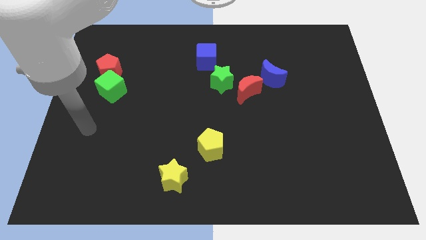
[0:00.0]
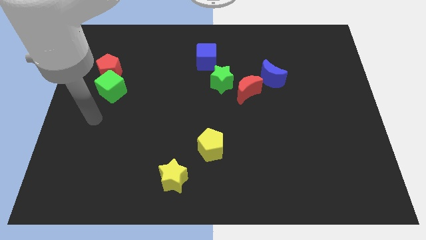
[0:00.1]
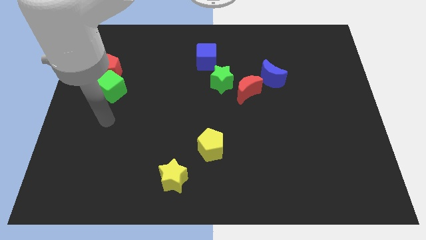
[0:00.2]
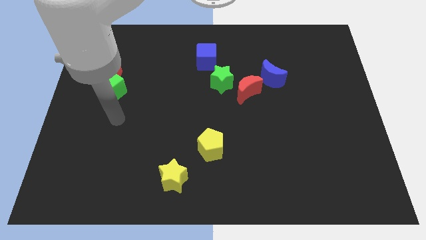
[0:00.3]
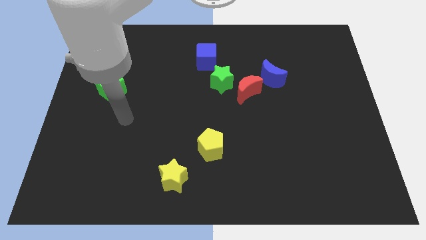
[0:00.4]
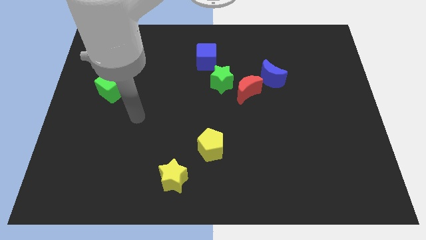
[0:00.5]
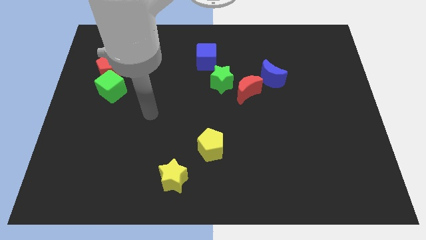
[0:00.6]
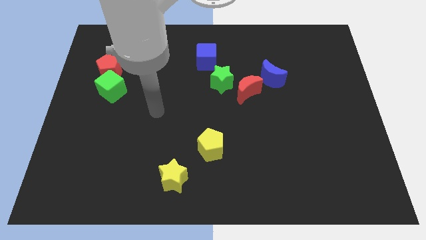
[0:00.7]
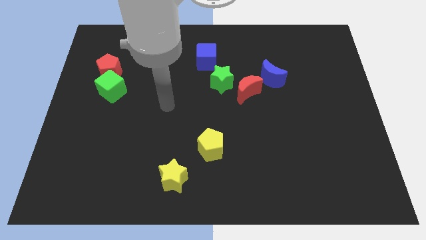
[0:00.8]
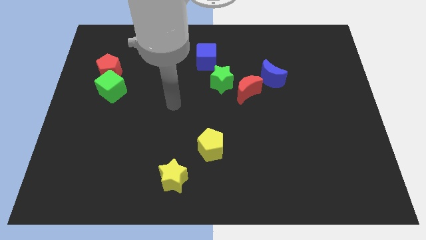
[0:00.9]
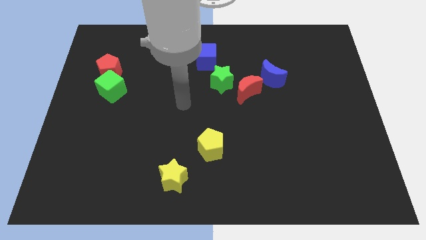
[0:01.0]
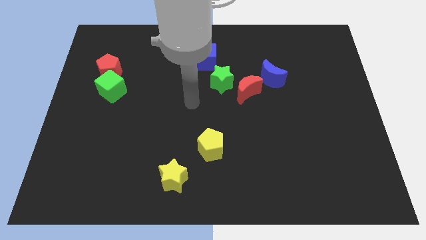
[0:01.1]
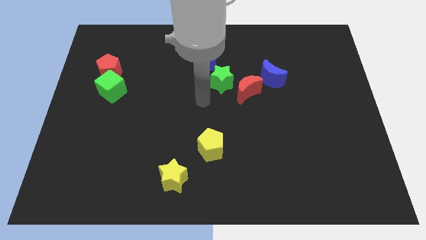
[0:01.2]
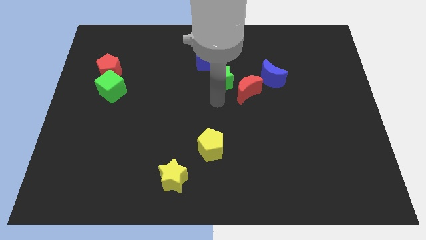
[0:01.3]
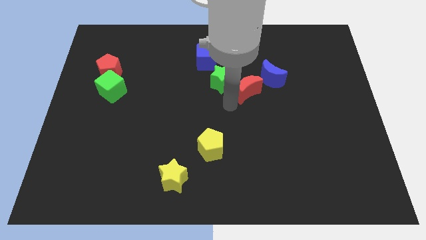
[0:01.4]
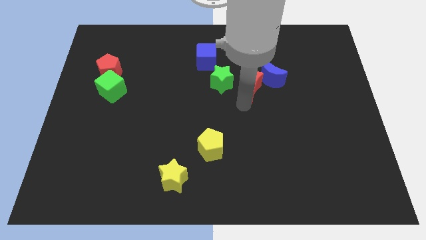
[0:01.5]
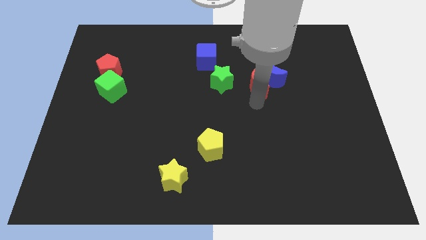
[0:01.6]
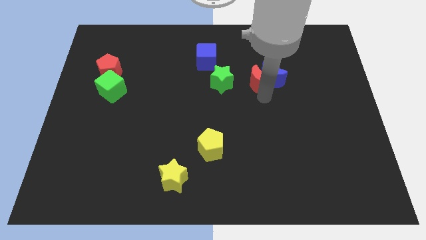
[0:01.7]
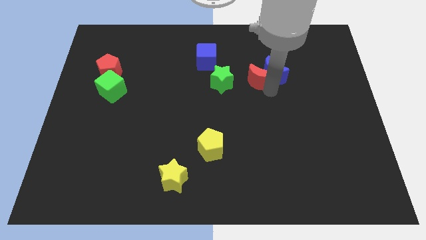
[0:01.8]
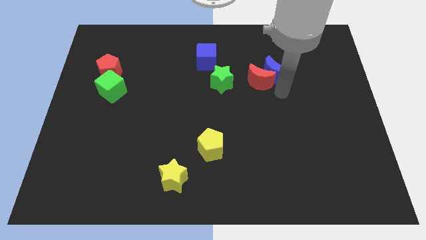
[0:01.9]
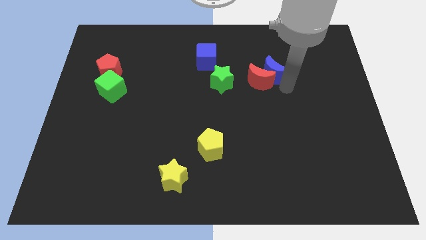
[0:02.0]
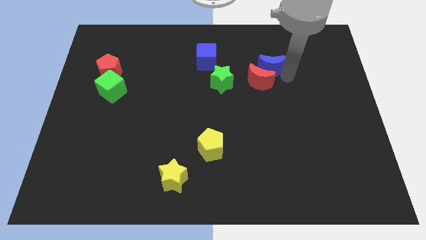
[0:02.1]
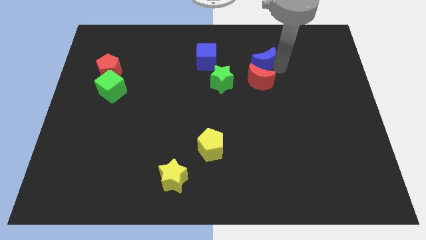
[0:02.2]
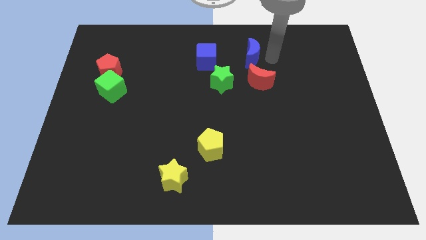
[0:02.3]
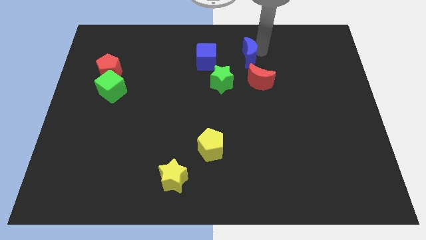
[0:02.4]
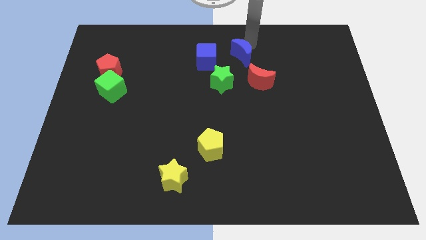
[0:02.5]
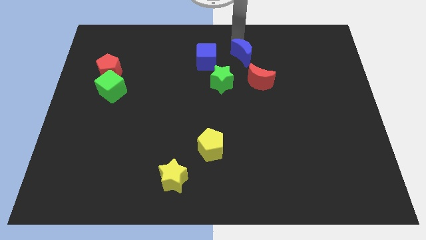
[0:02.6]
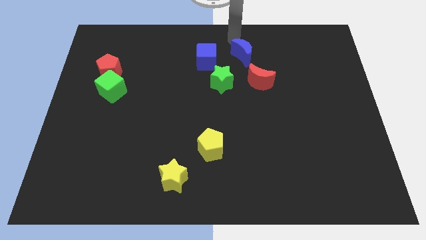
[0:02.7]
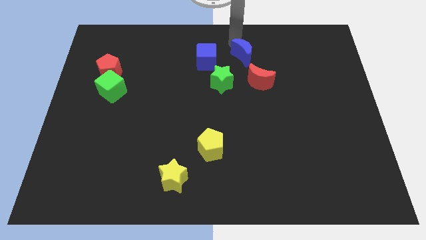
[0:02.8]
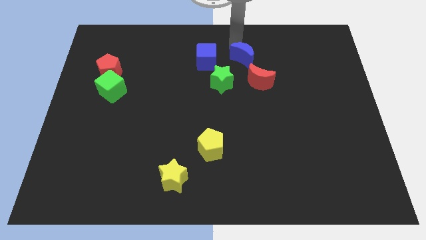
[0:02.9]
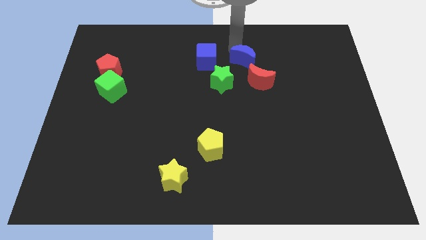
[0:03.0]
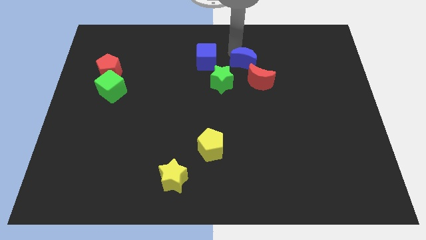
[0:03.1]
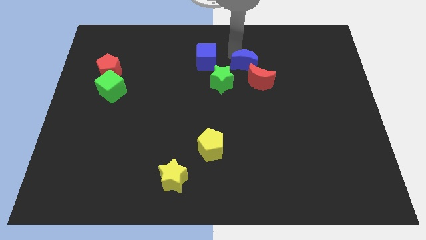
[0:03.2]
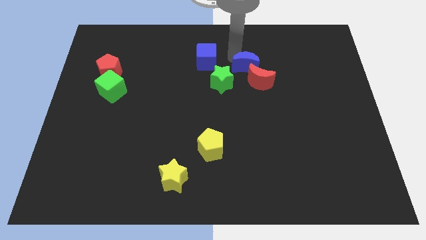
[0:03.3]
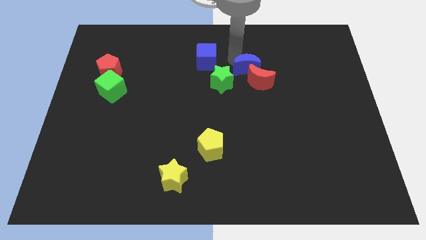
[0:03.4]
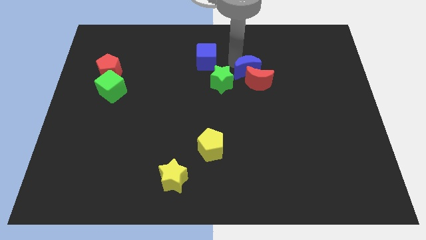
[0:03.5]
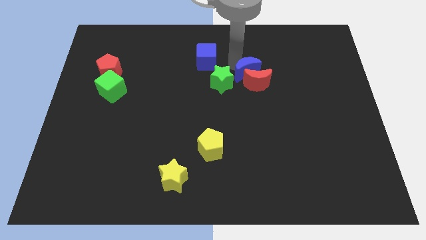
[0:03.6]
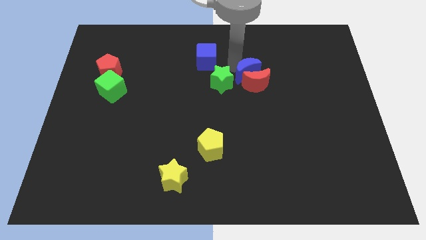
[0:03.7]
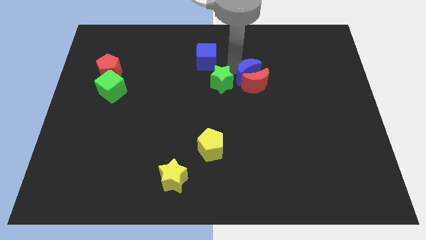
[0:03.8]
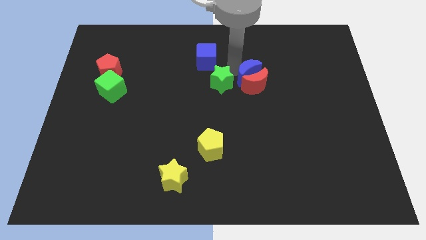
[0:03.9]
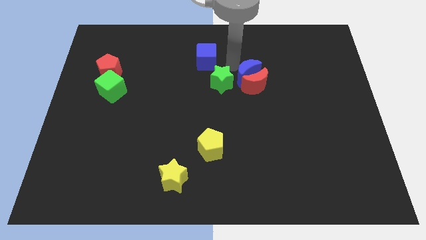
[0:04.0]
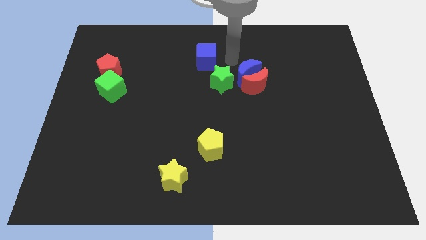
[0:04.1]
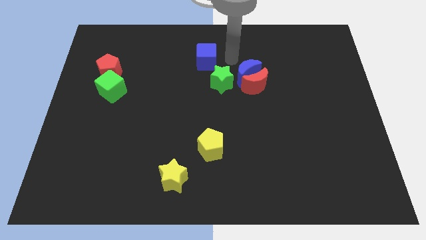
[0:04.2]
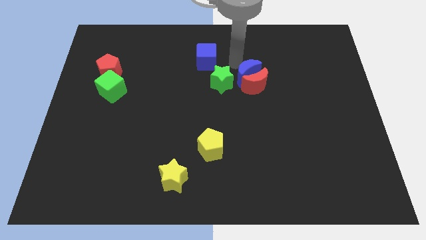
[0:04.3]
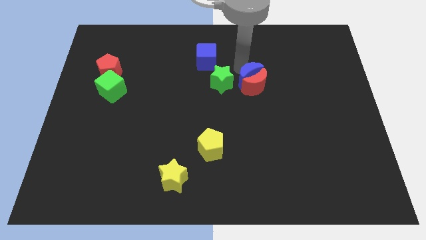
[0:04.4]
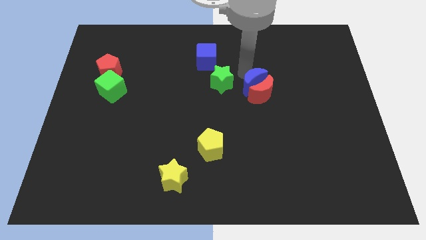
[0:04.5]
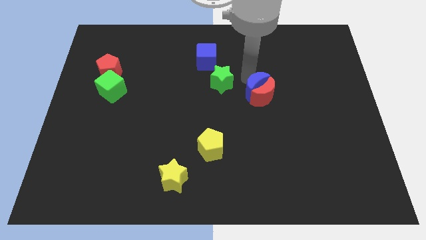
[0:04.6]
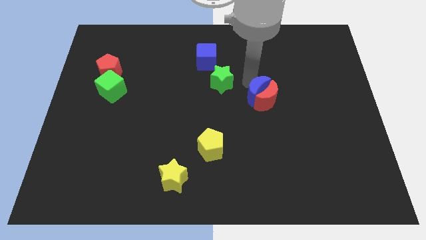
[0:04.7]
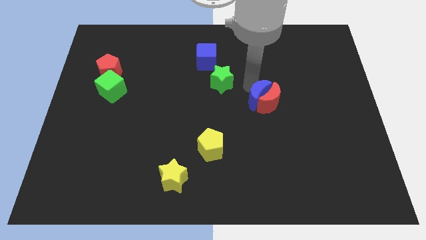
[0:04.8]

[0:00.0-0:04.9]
push the blue moon downwards and to the left a bit

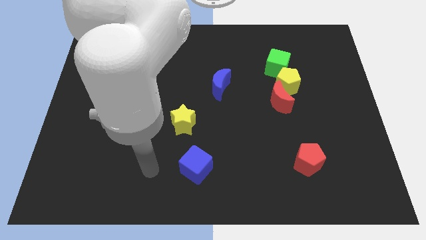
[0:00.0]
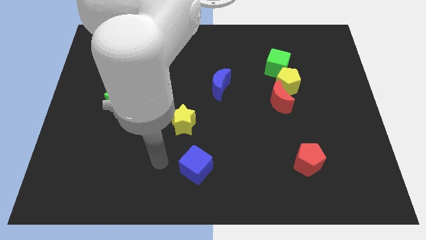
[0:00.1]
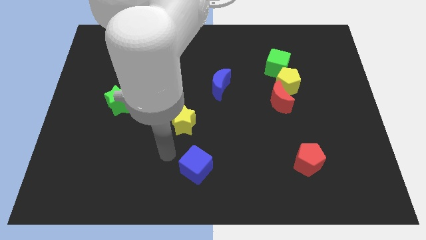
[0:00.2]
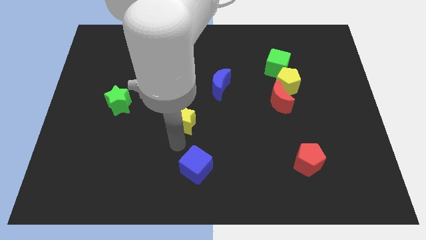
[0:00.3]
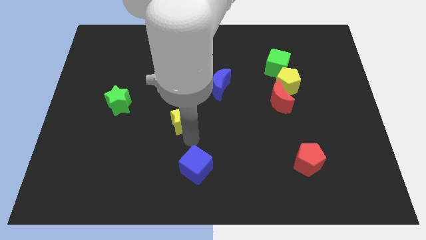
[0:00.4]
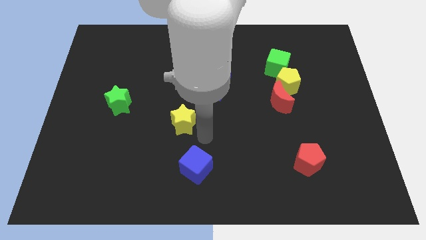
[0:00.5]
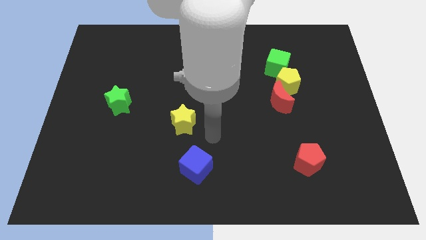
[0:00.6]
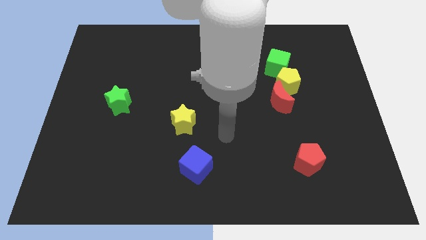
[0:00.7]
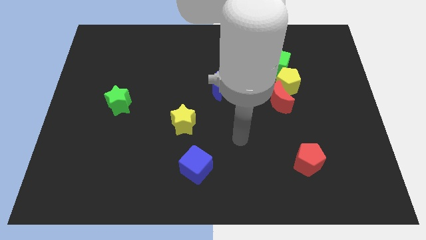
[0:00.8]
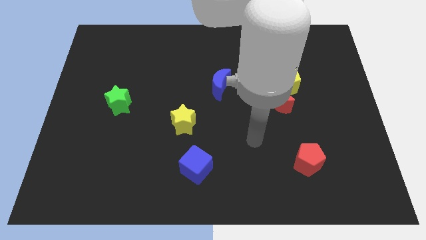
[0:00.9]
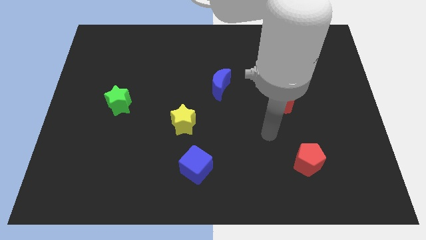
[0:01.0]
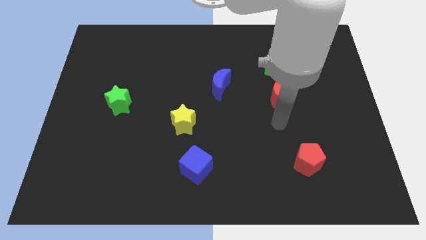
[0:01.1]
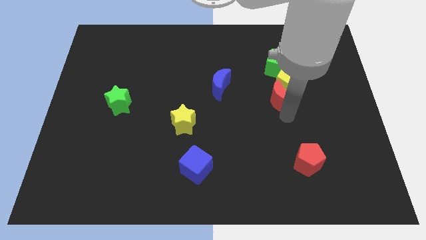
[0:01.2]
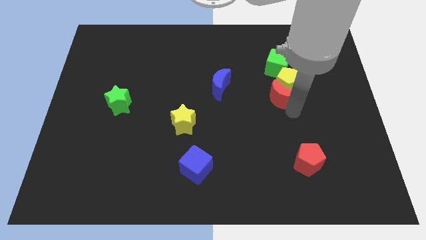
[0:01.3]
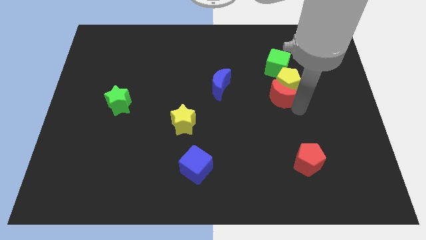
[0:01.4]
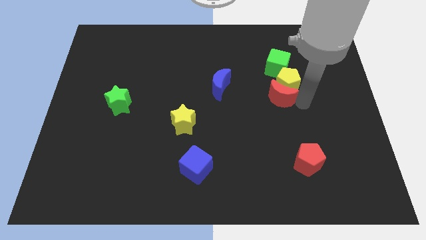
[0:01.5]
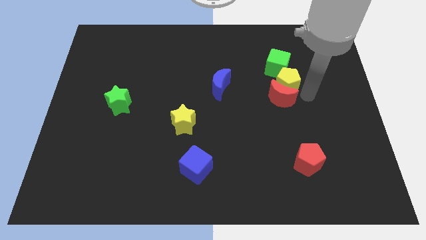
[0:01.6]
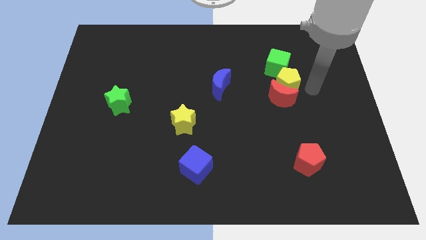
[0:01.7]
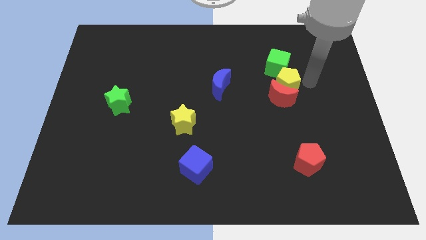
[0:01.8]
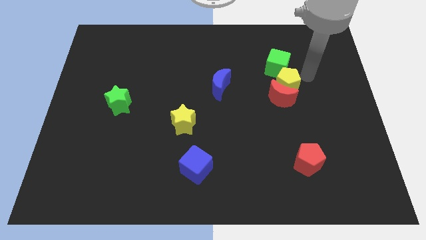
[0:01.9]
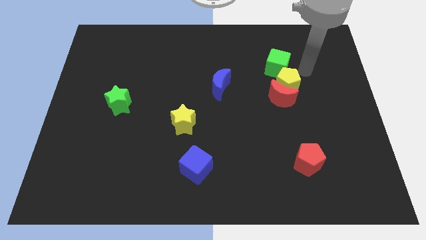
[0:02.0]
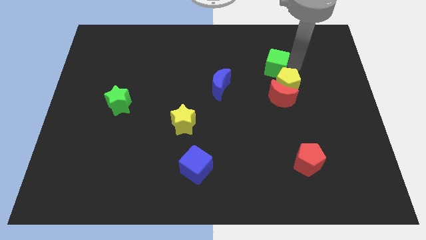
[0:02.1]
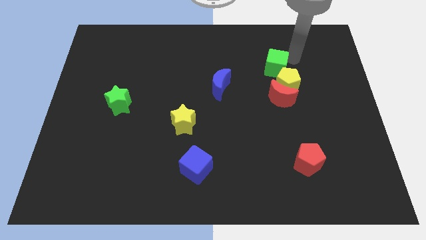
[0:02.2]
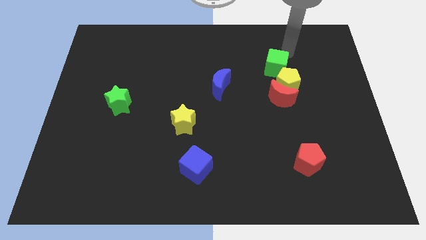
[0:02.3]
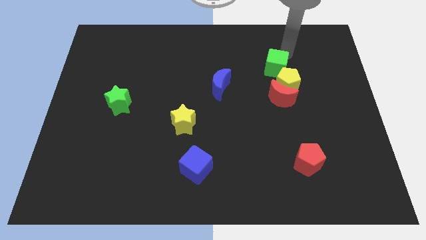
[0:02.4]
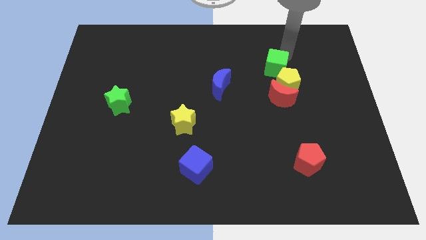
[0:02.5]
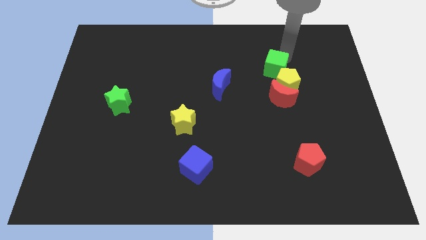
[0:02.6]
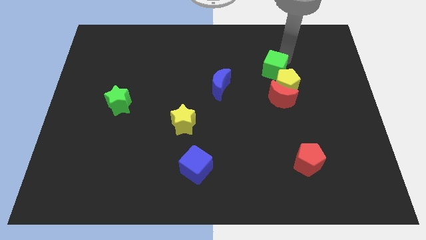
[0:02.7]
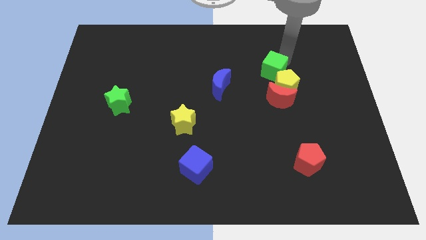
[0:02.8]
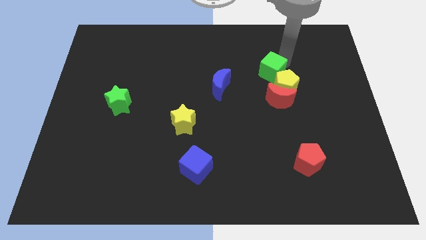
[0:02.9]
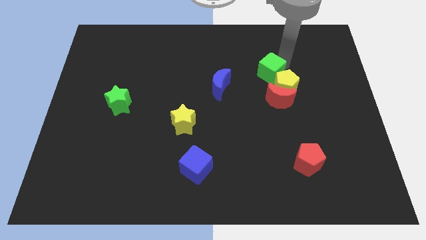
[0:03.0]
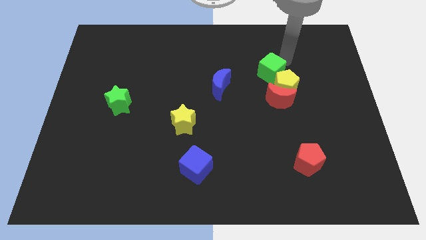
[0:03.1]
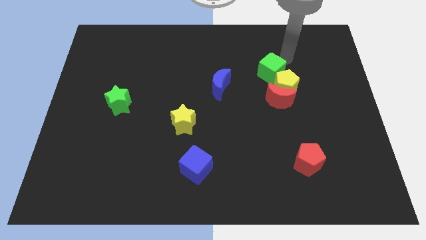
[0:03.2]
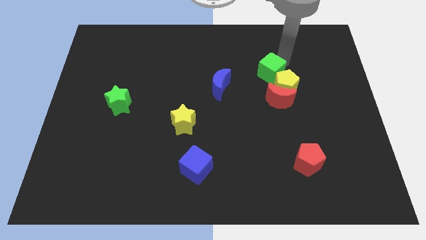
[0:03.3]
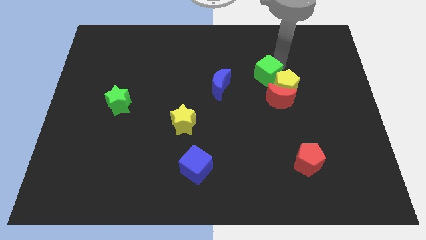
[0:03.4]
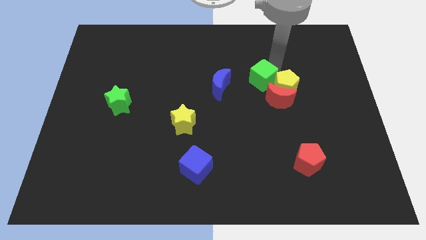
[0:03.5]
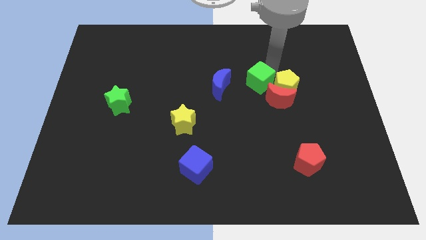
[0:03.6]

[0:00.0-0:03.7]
slightly slide the green cube downwards and then left
